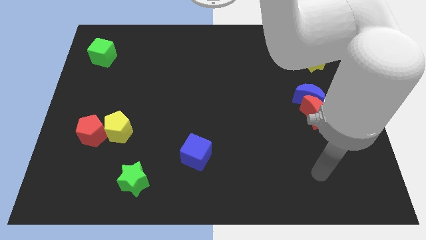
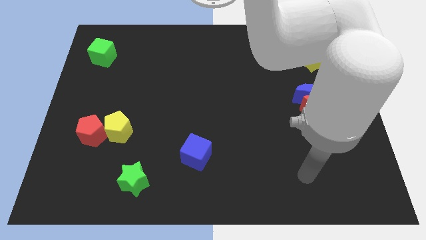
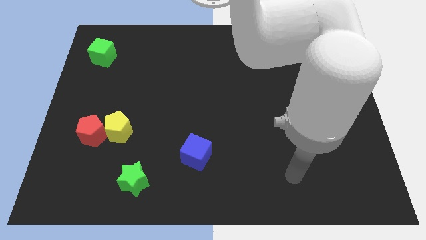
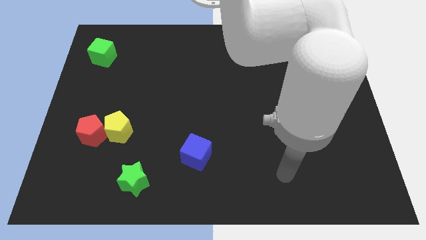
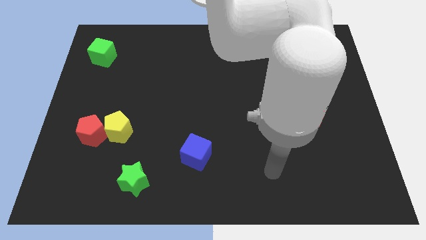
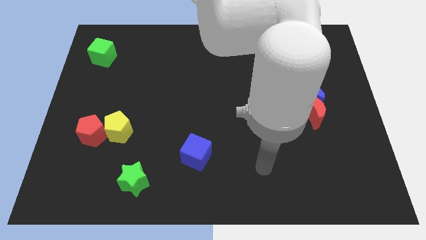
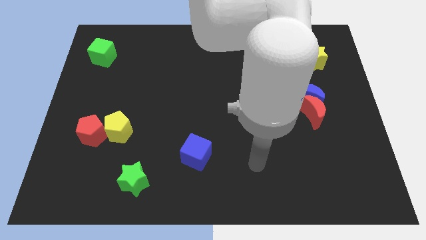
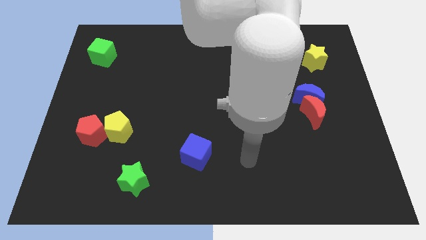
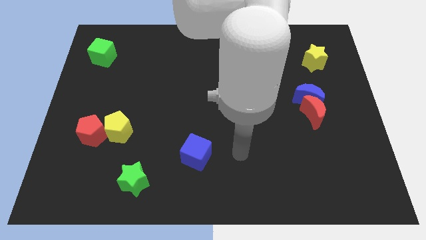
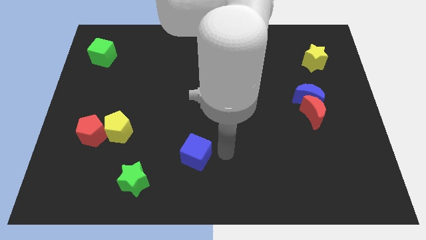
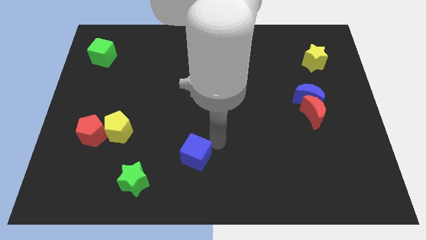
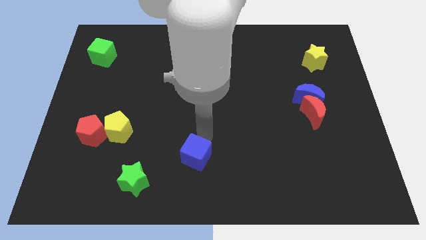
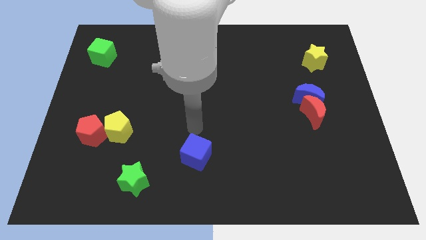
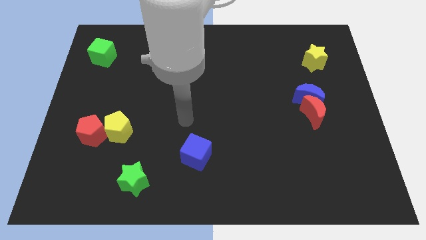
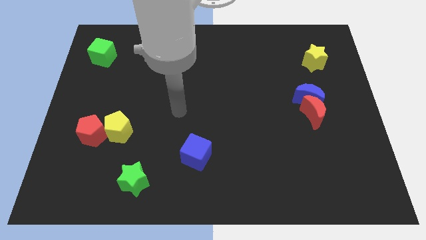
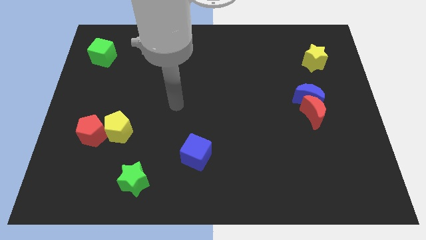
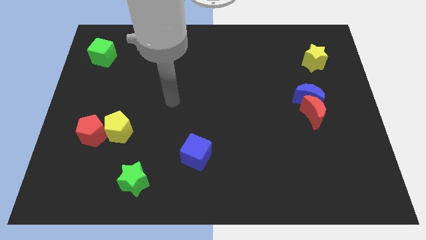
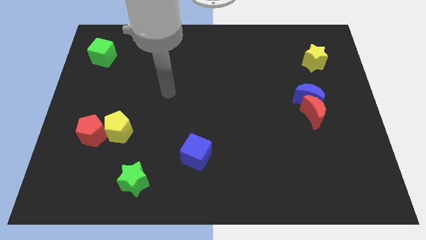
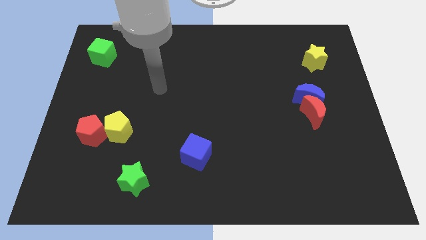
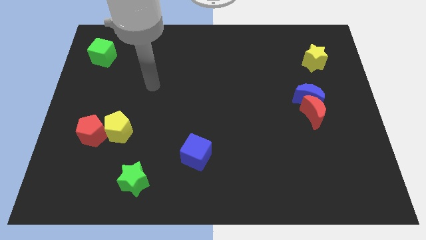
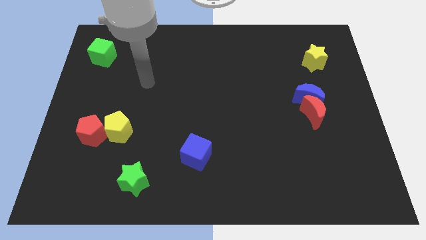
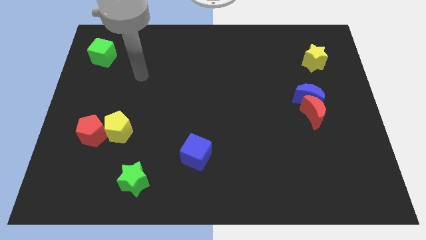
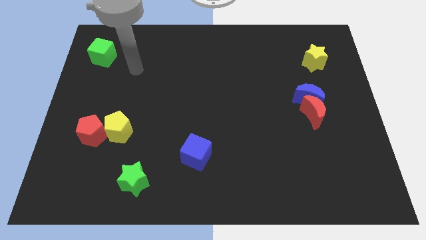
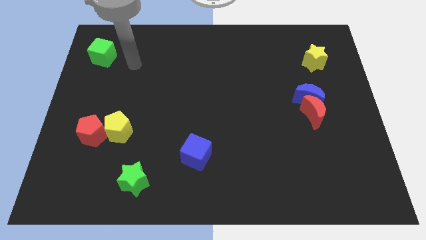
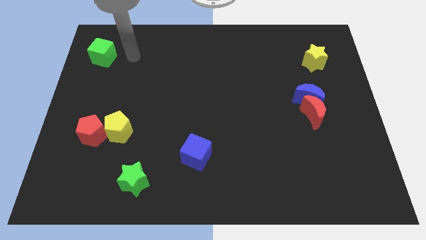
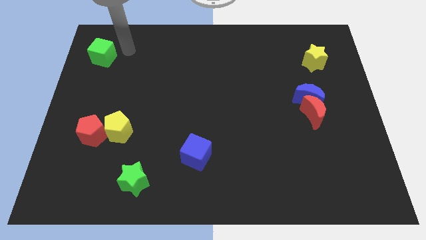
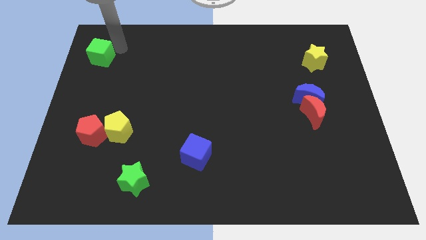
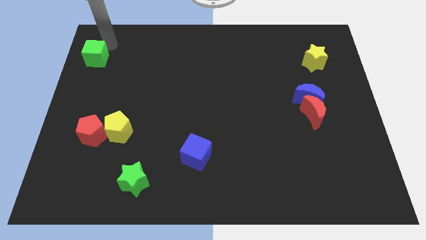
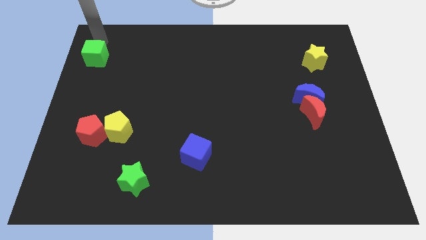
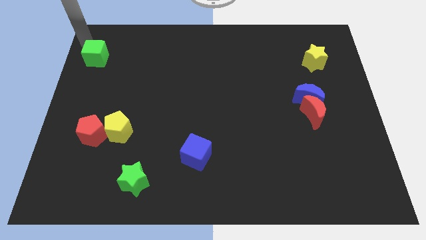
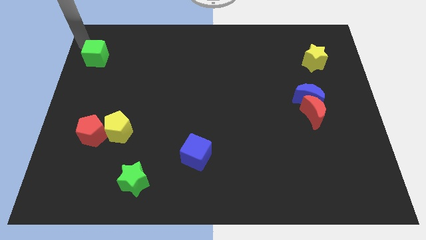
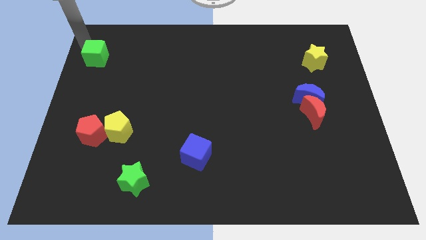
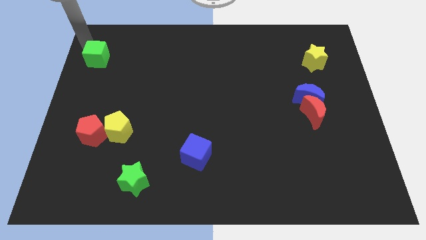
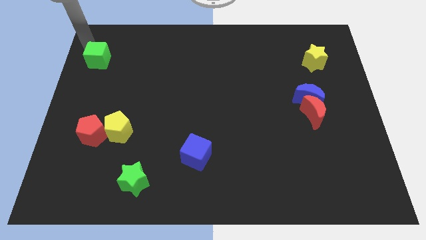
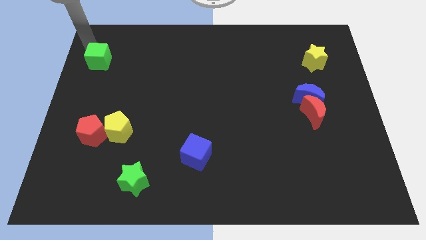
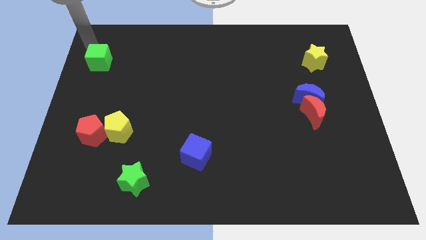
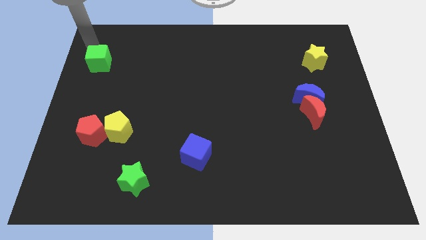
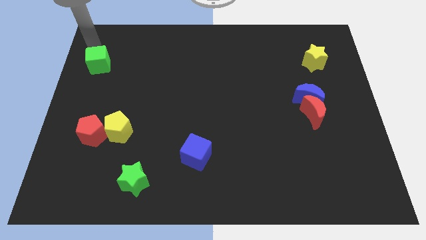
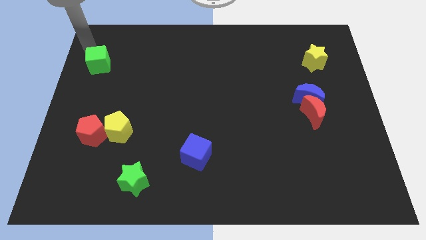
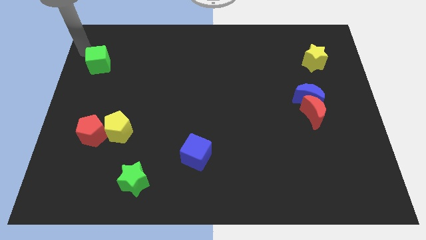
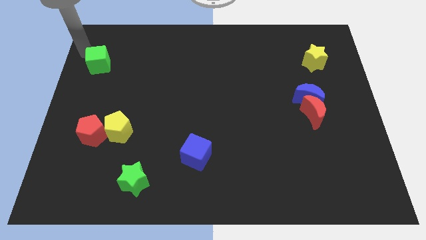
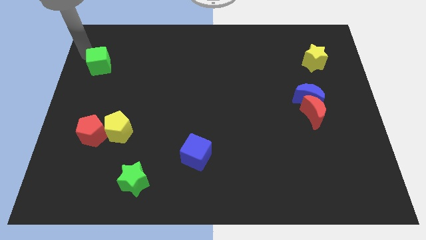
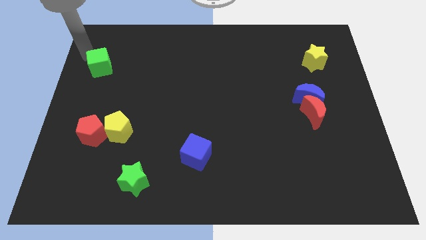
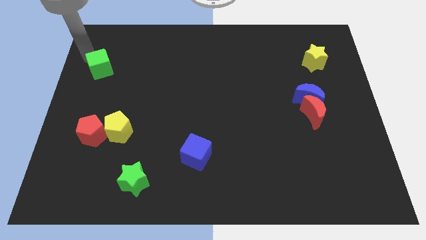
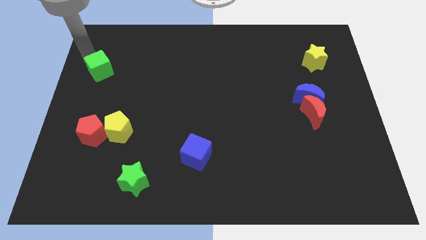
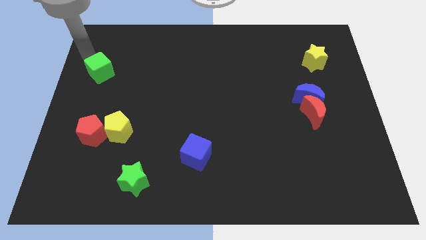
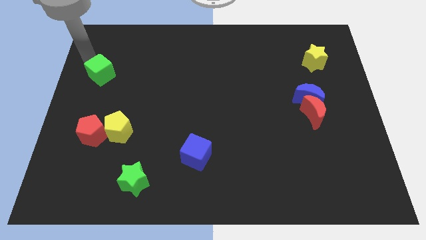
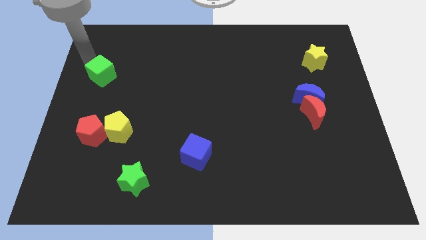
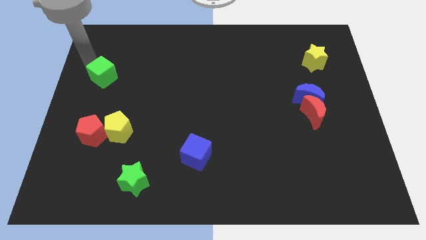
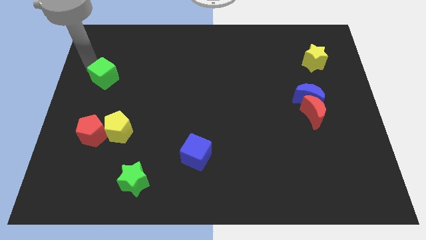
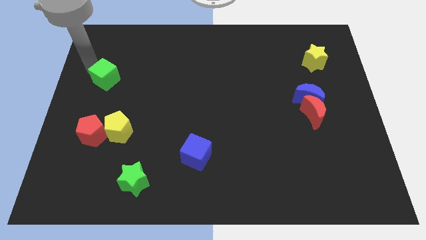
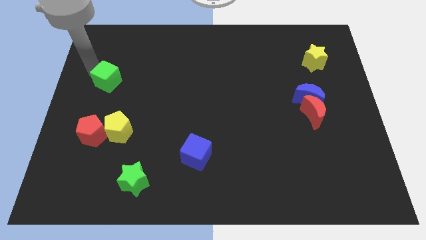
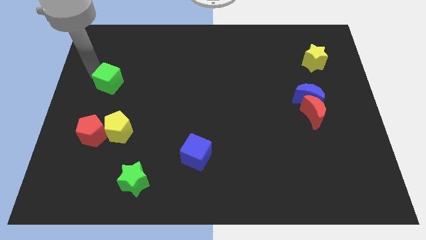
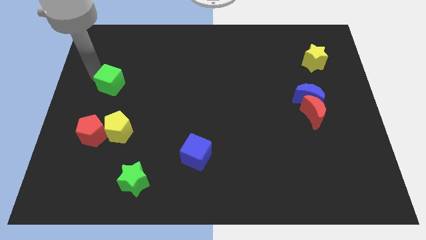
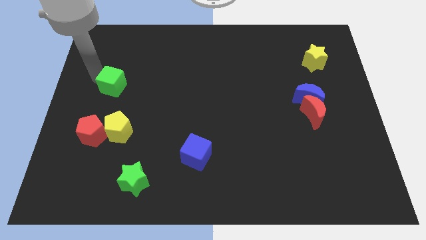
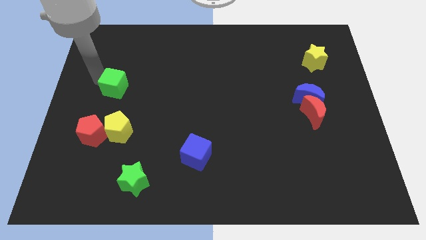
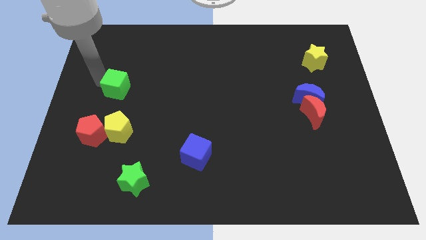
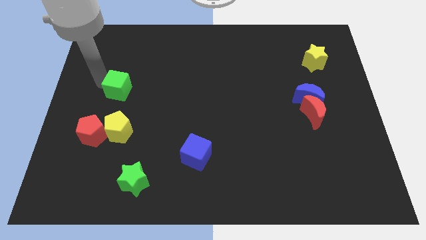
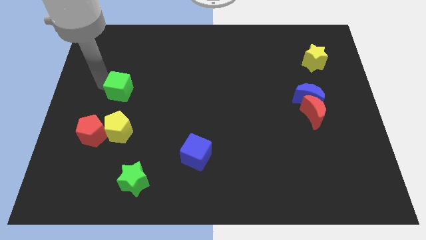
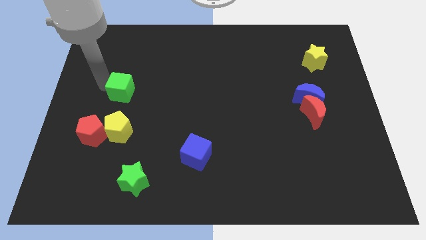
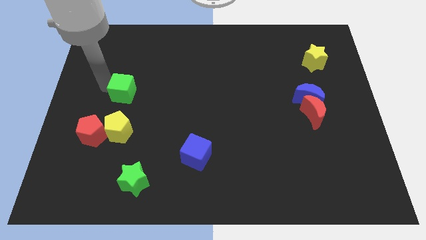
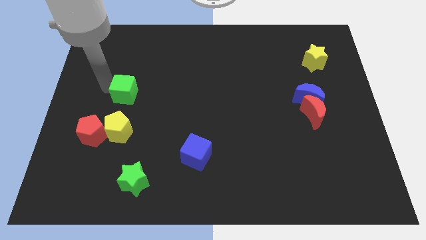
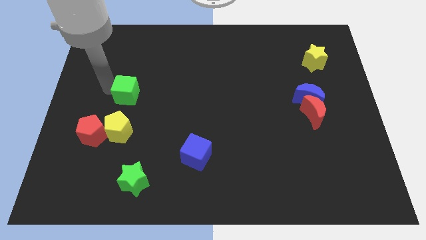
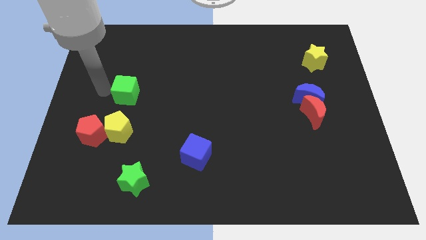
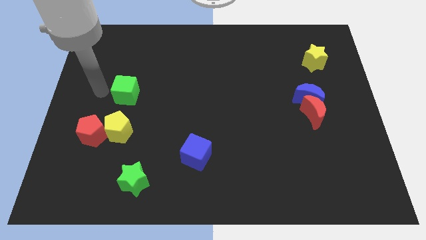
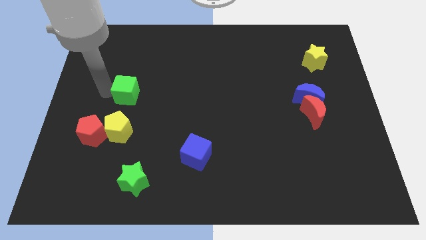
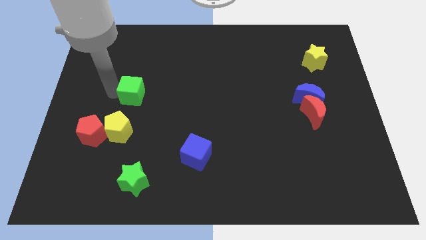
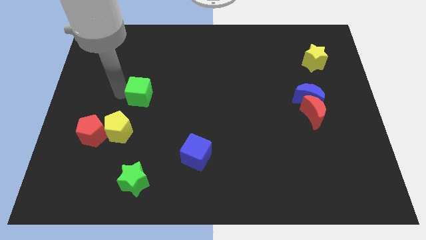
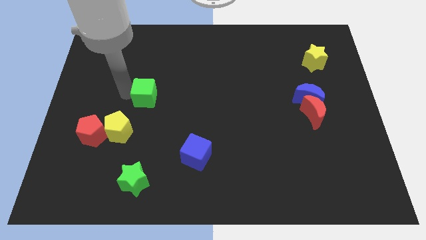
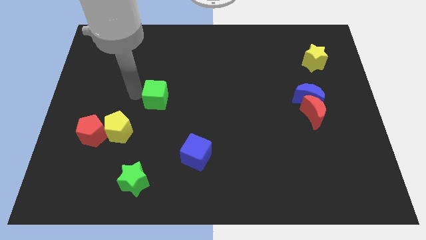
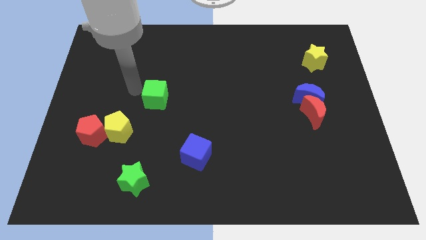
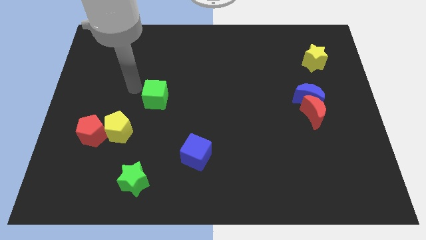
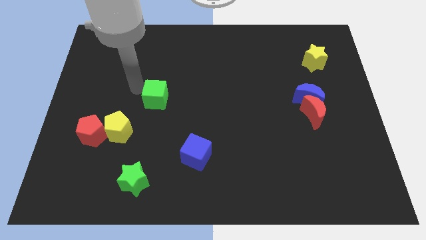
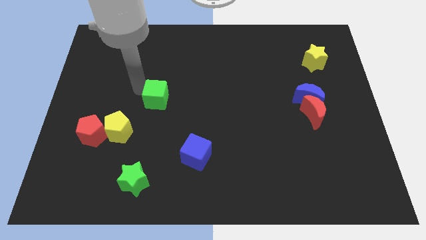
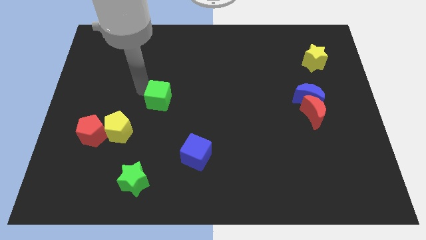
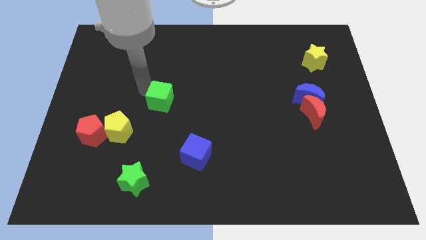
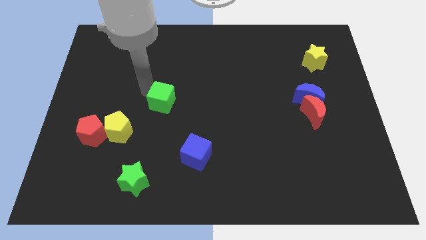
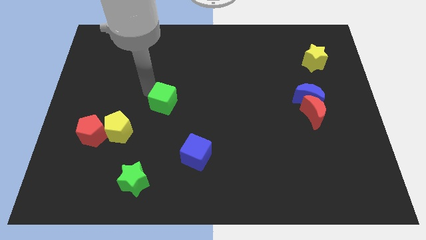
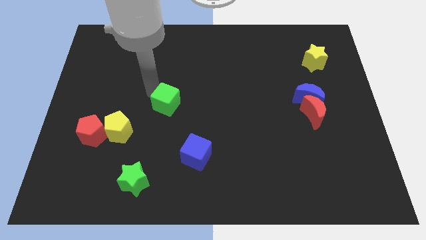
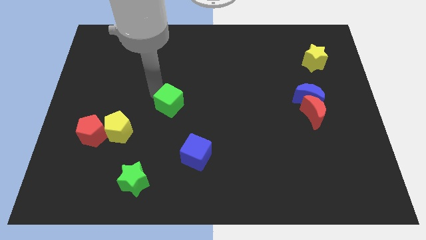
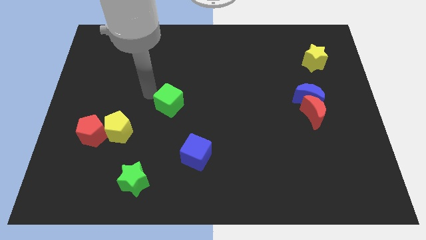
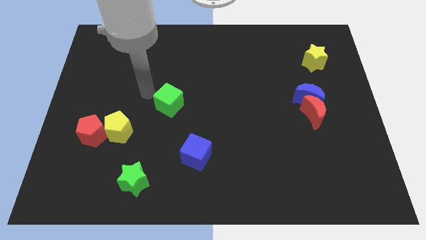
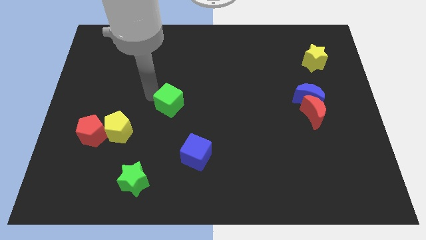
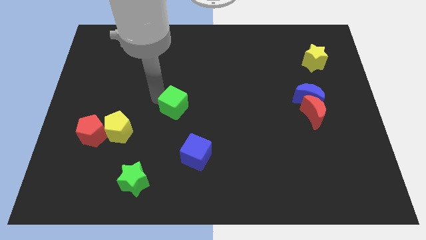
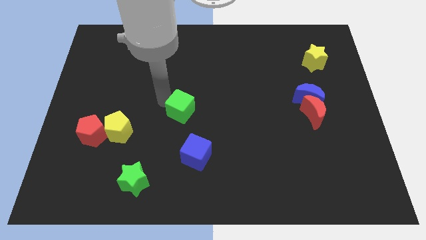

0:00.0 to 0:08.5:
put the green cube above the blue cube
